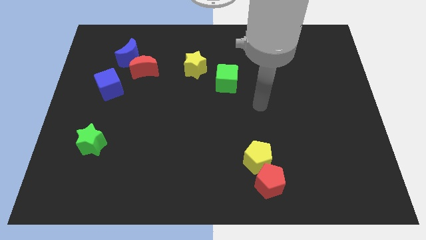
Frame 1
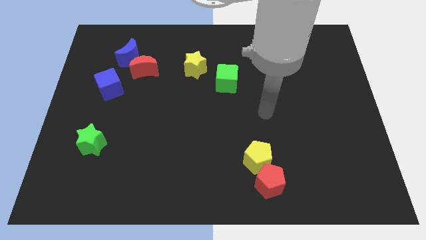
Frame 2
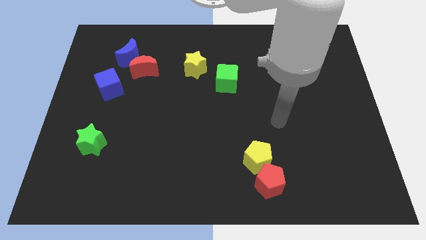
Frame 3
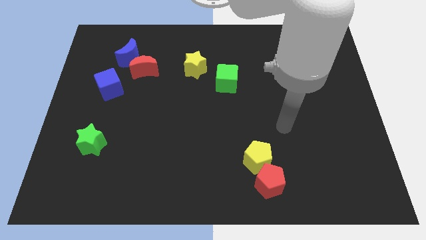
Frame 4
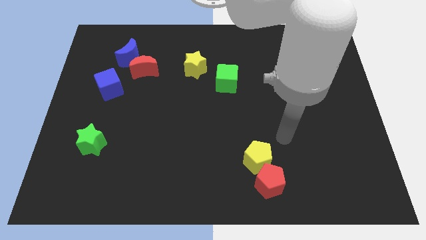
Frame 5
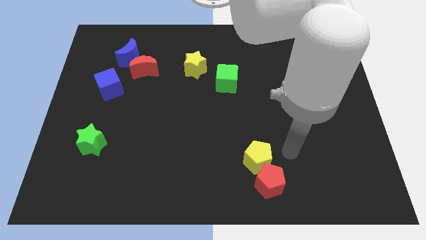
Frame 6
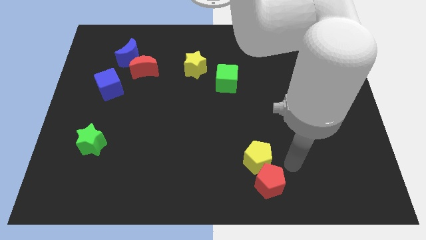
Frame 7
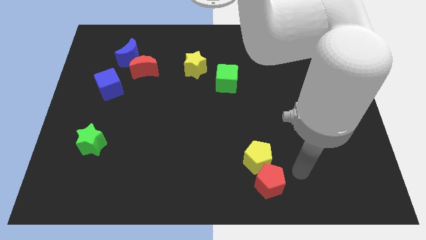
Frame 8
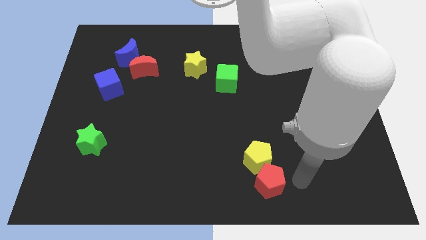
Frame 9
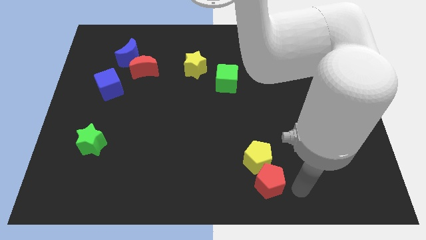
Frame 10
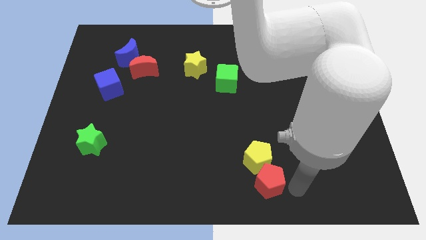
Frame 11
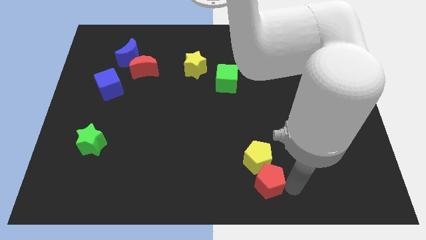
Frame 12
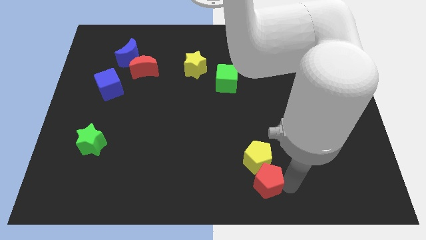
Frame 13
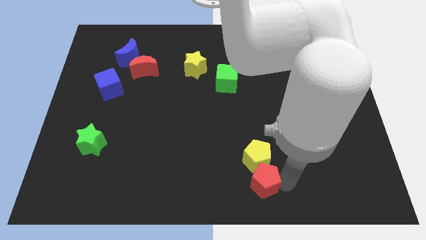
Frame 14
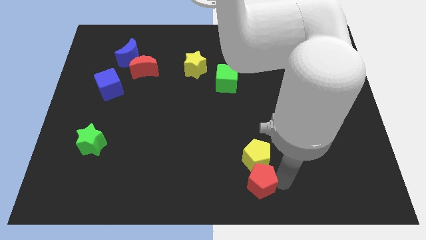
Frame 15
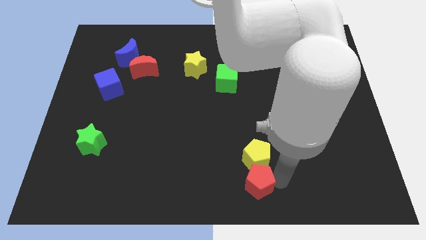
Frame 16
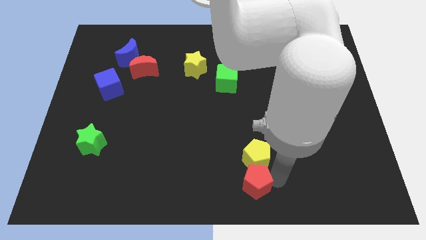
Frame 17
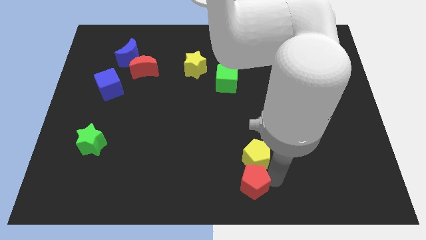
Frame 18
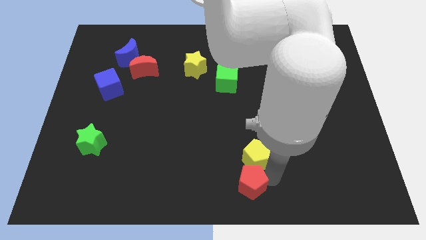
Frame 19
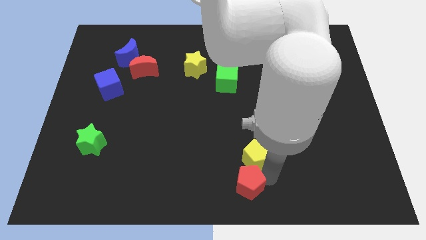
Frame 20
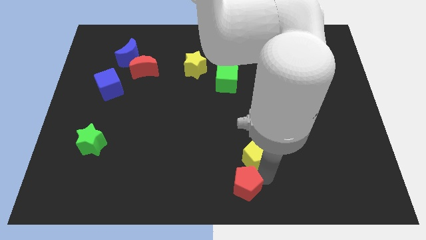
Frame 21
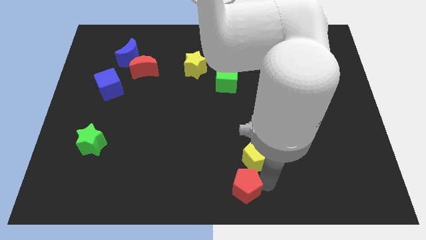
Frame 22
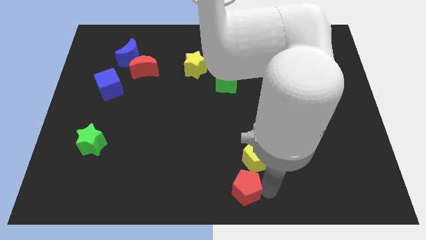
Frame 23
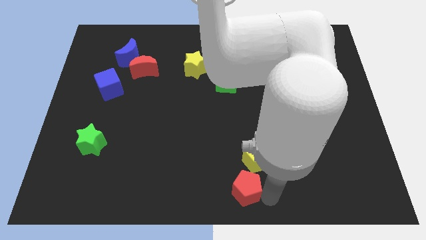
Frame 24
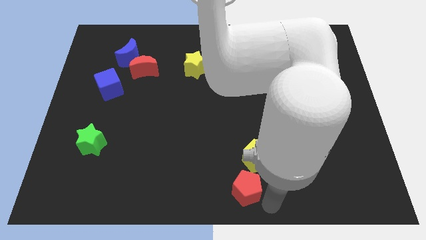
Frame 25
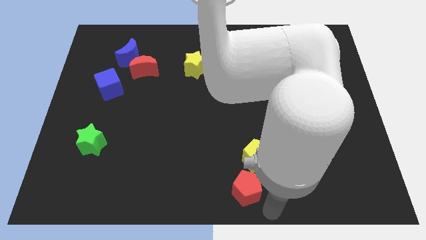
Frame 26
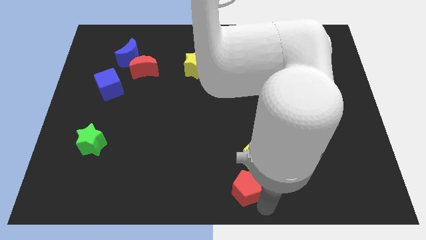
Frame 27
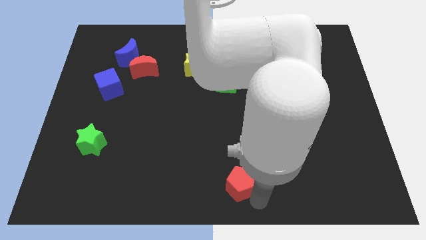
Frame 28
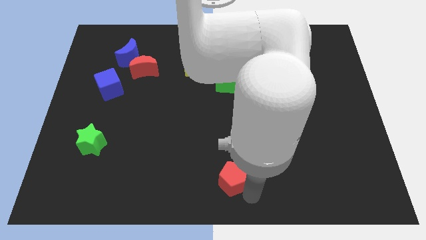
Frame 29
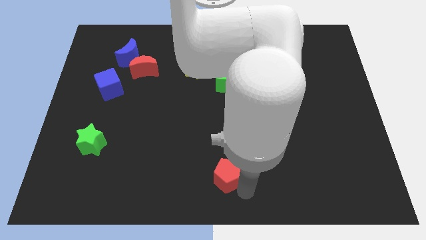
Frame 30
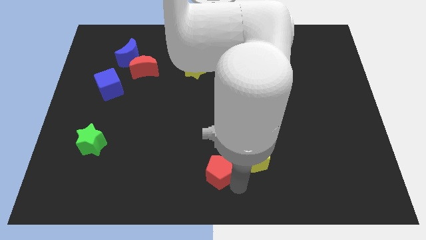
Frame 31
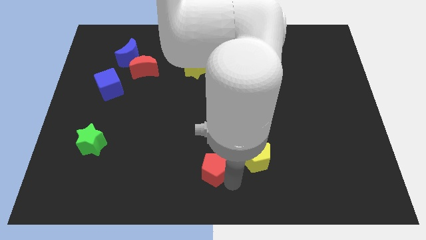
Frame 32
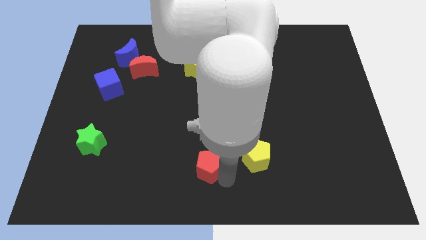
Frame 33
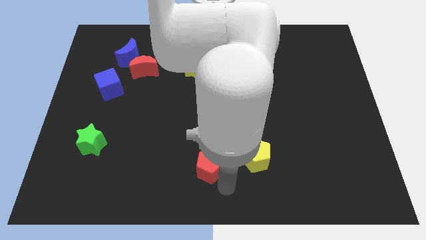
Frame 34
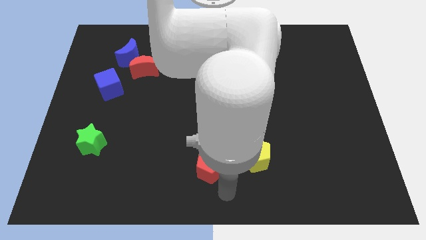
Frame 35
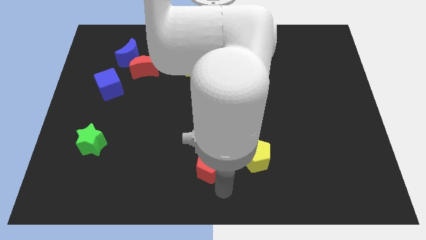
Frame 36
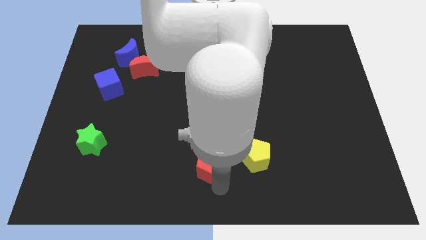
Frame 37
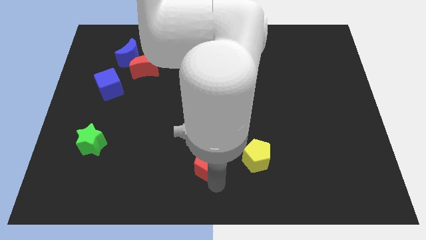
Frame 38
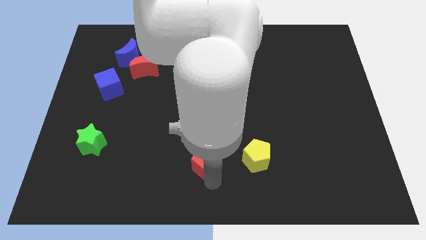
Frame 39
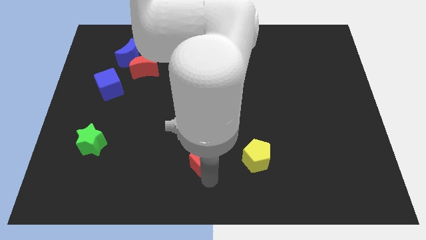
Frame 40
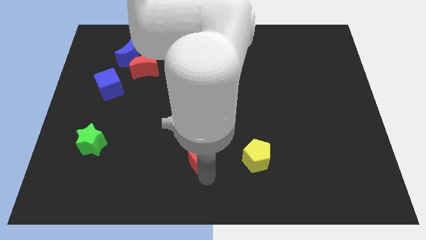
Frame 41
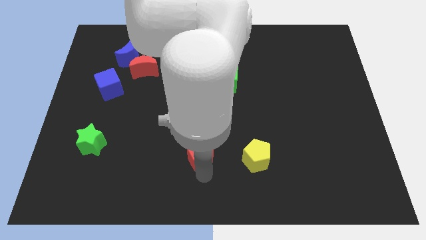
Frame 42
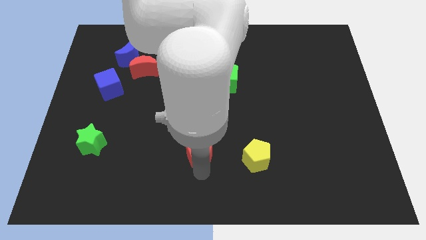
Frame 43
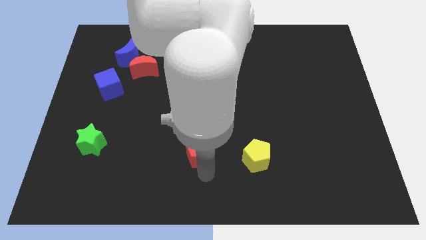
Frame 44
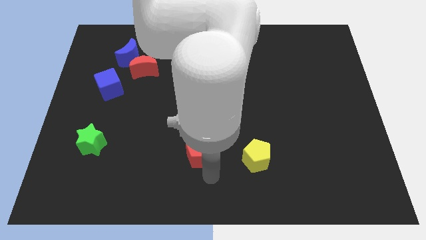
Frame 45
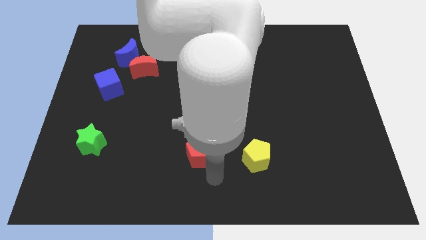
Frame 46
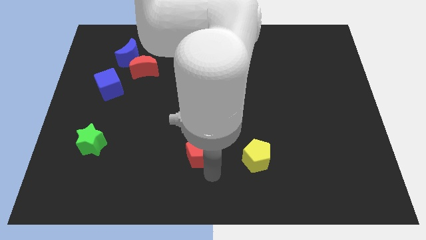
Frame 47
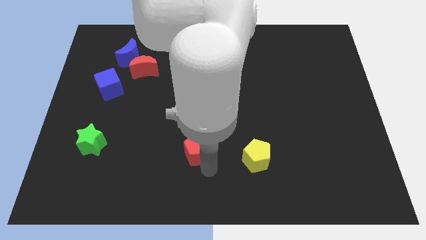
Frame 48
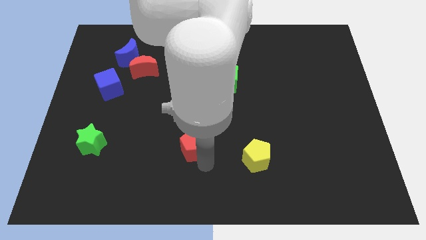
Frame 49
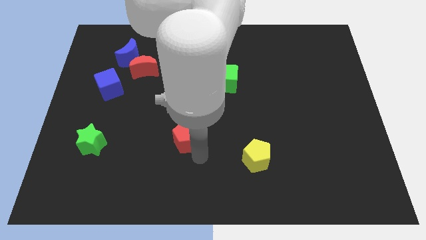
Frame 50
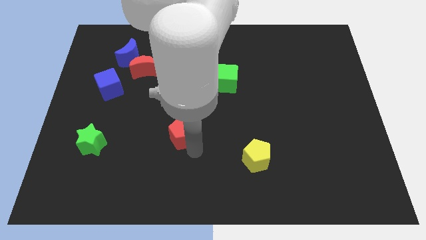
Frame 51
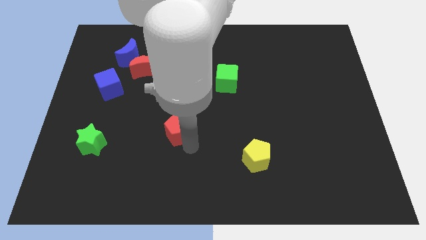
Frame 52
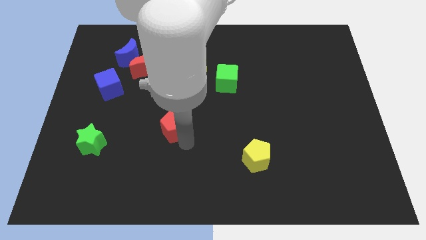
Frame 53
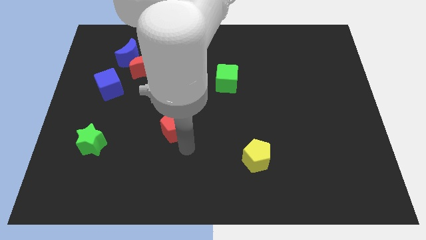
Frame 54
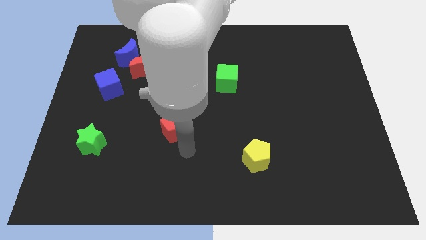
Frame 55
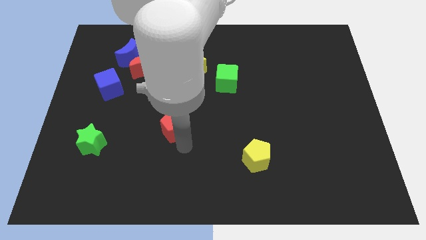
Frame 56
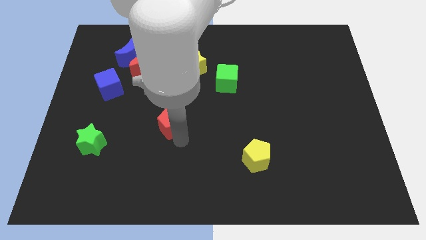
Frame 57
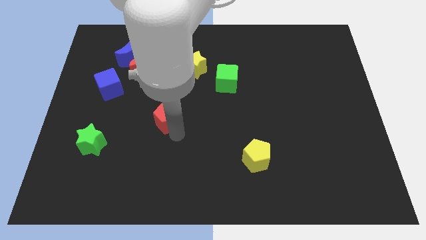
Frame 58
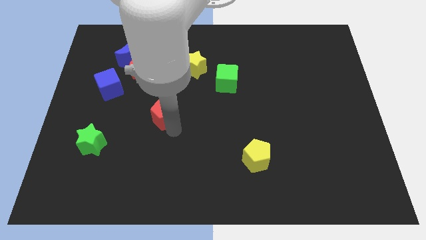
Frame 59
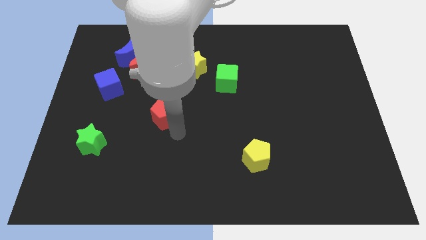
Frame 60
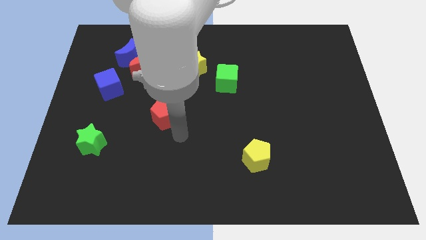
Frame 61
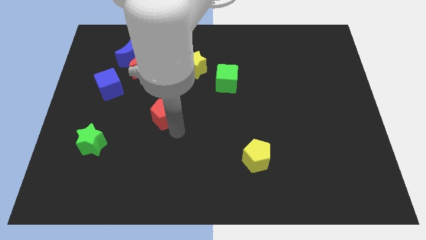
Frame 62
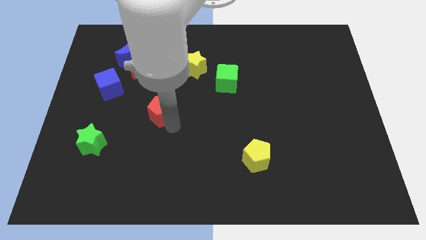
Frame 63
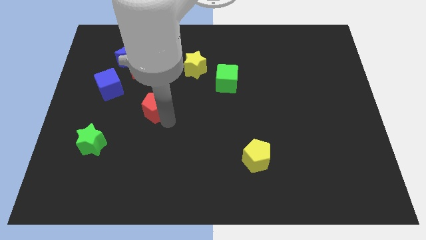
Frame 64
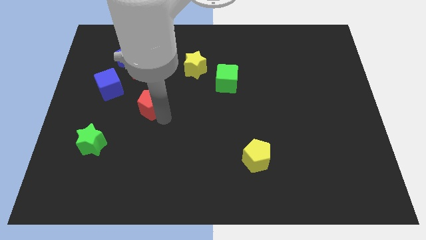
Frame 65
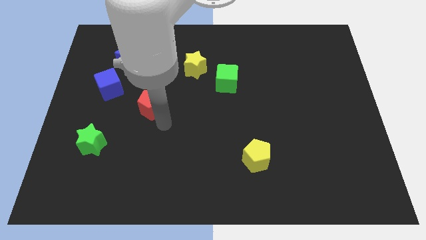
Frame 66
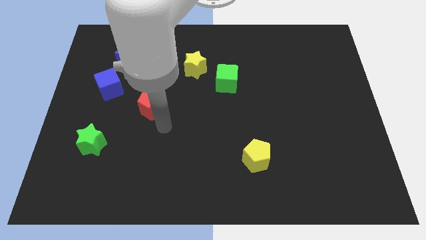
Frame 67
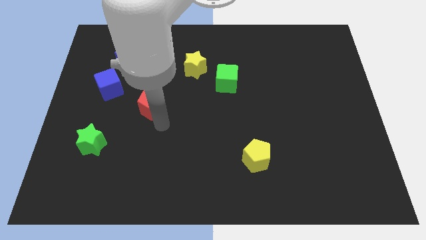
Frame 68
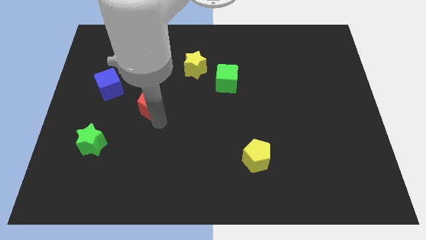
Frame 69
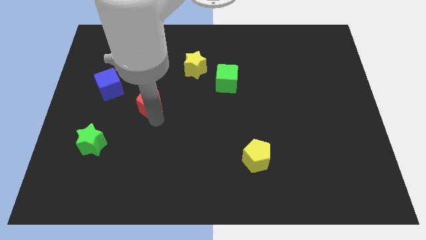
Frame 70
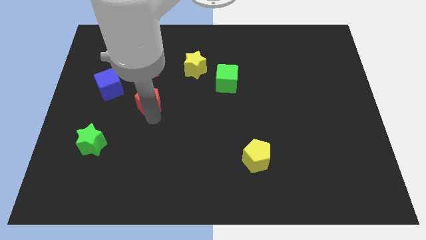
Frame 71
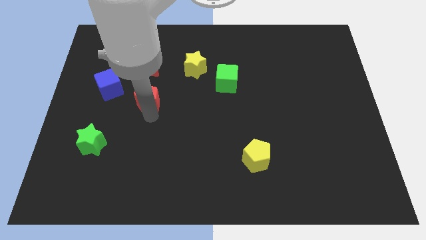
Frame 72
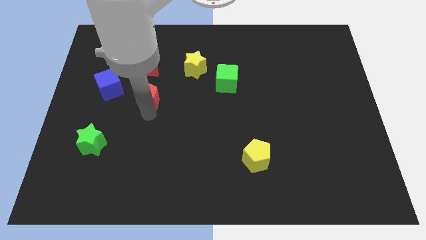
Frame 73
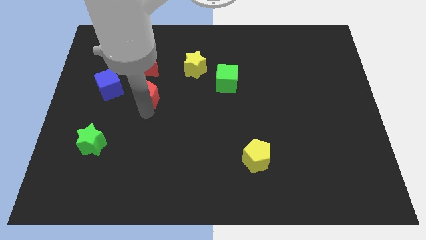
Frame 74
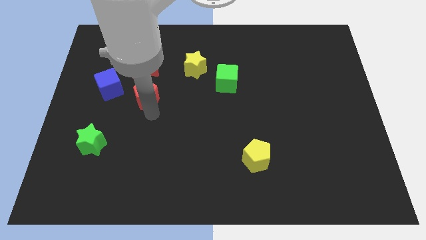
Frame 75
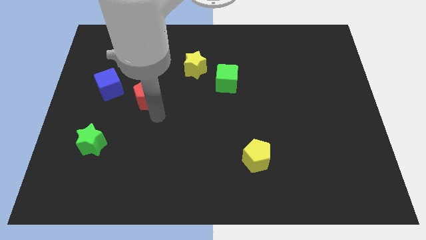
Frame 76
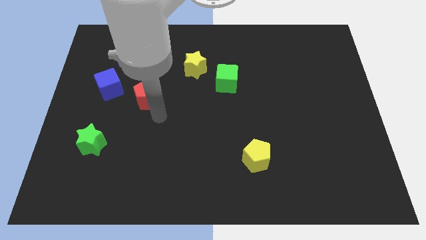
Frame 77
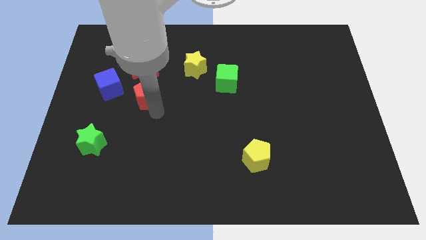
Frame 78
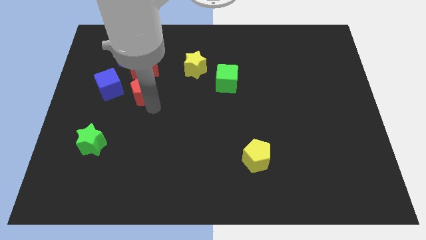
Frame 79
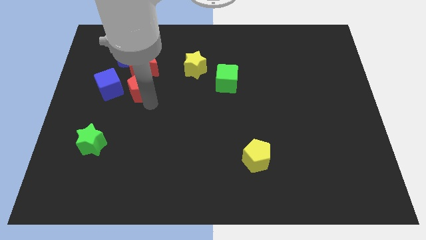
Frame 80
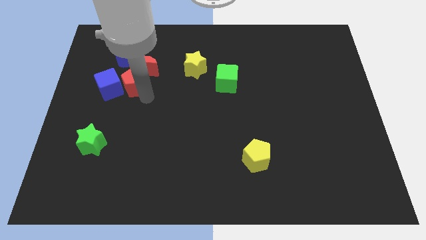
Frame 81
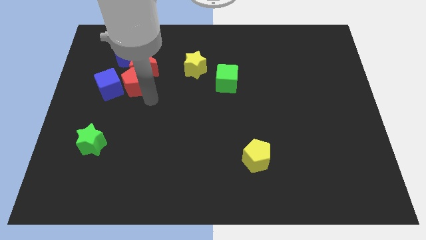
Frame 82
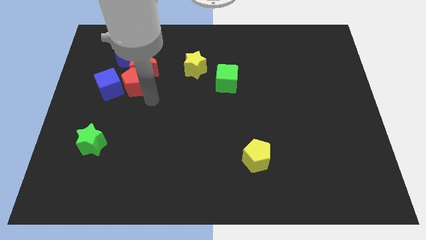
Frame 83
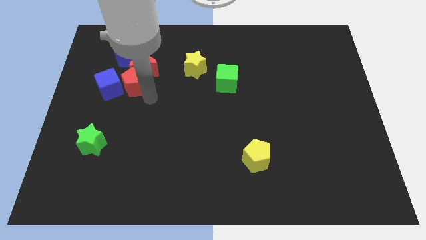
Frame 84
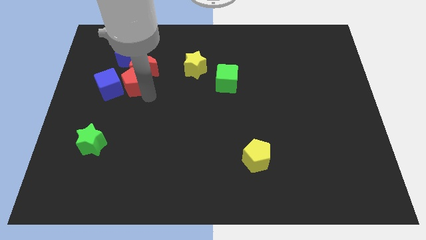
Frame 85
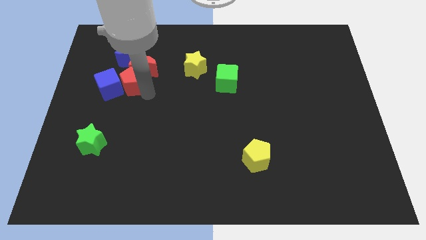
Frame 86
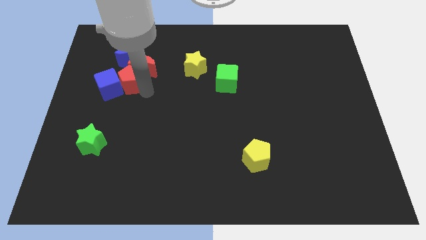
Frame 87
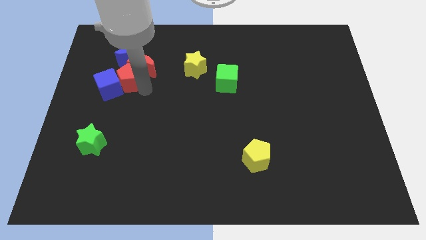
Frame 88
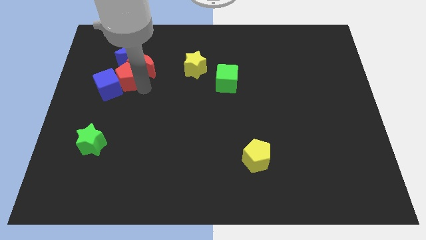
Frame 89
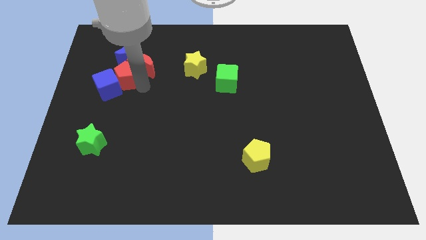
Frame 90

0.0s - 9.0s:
move the red pentagon to the top side of the blue cube
